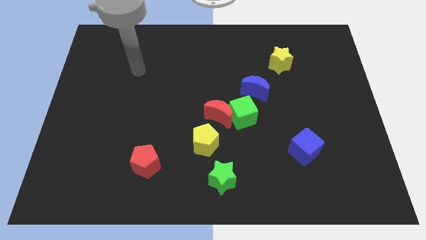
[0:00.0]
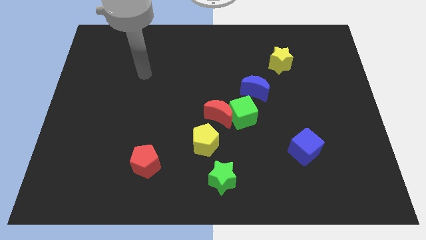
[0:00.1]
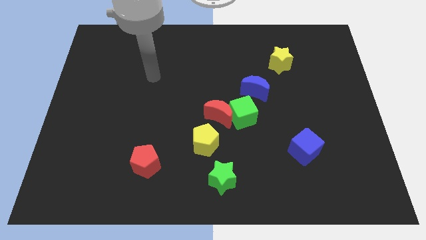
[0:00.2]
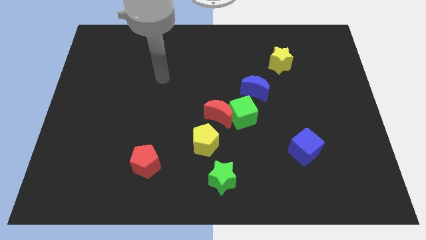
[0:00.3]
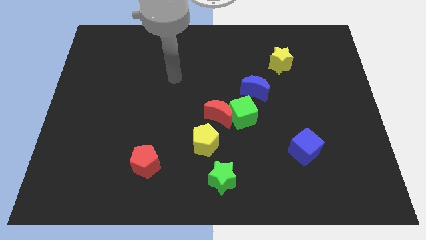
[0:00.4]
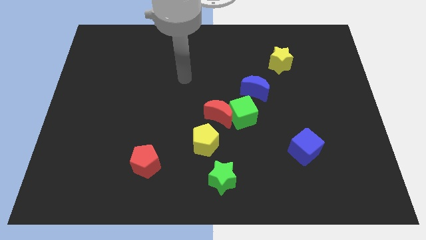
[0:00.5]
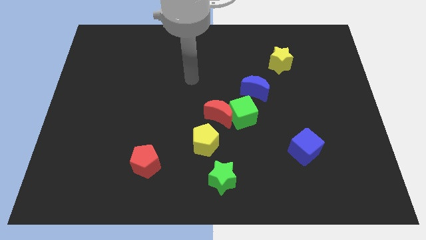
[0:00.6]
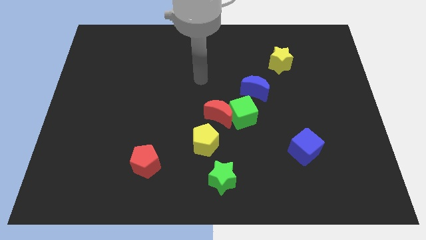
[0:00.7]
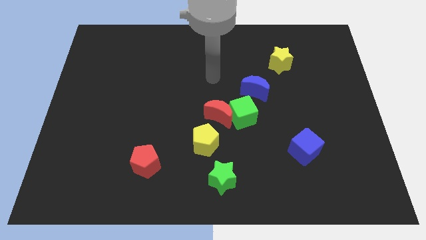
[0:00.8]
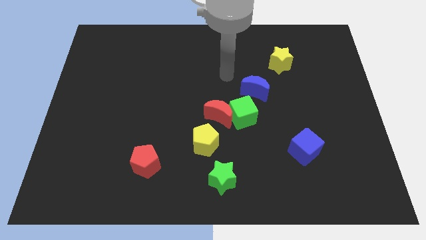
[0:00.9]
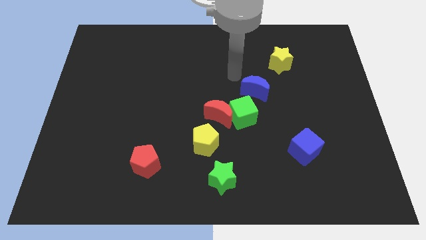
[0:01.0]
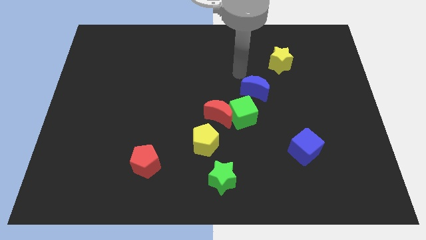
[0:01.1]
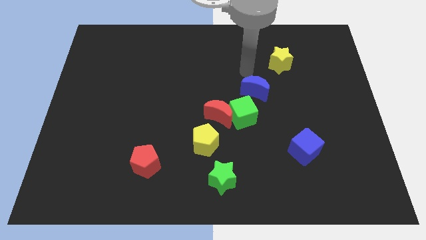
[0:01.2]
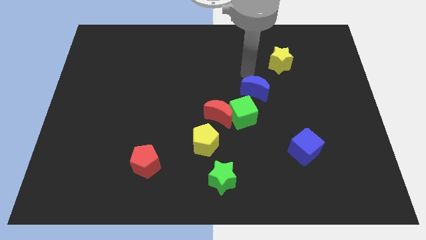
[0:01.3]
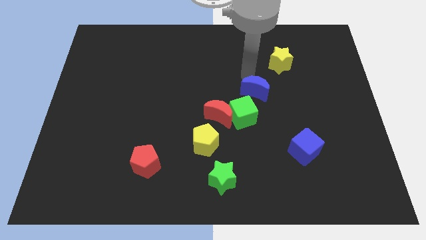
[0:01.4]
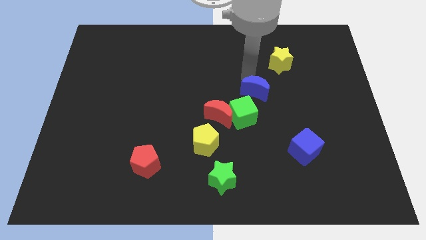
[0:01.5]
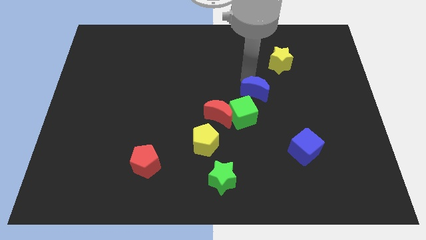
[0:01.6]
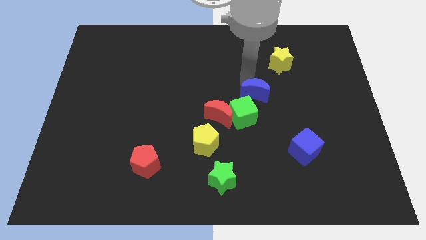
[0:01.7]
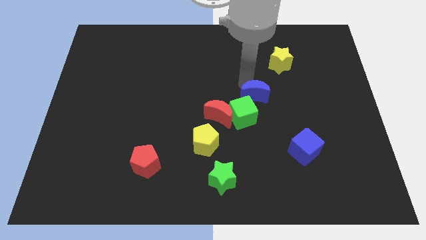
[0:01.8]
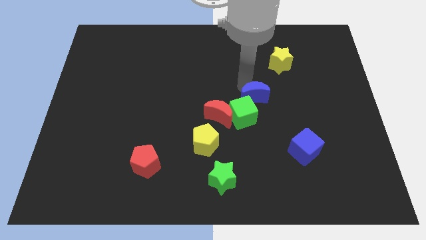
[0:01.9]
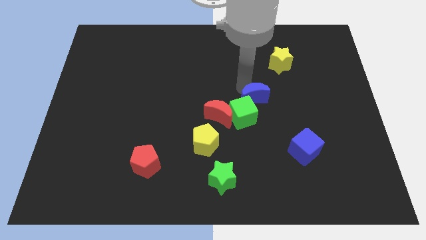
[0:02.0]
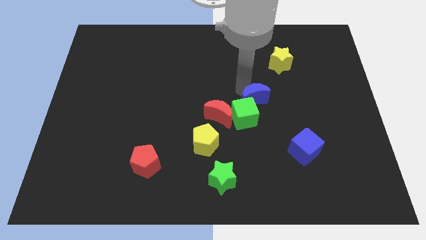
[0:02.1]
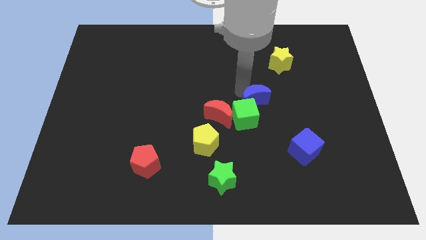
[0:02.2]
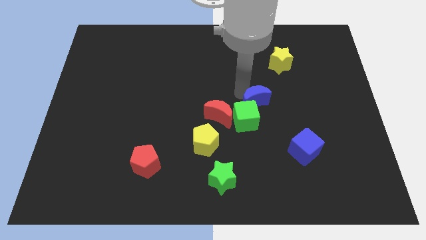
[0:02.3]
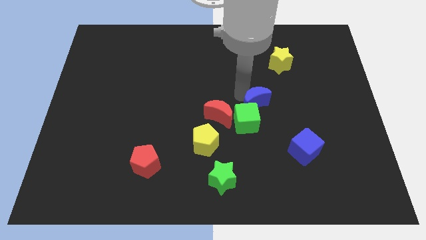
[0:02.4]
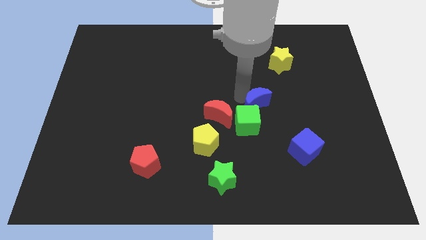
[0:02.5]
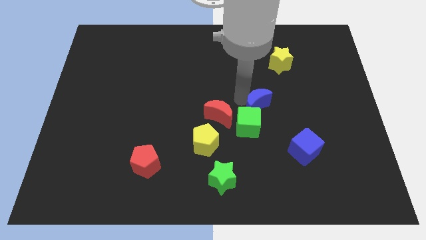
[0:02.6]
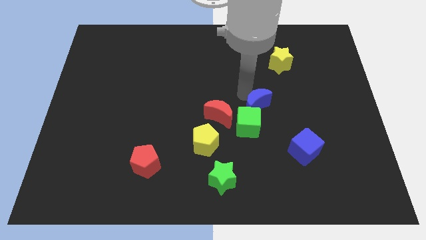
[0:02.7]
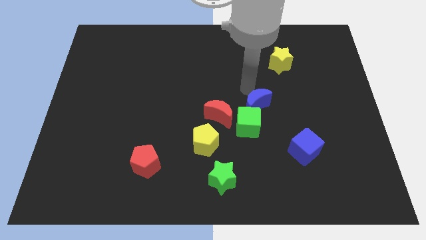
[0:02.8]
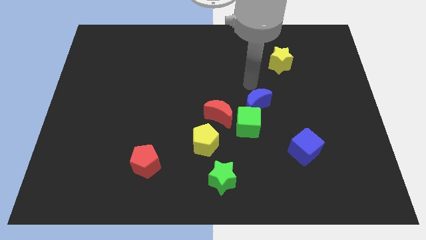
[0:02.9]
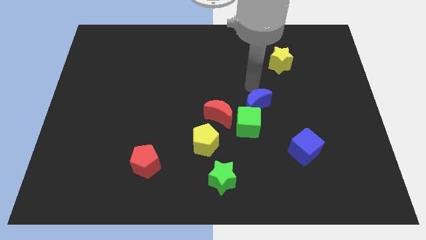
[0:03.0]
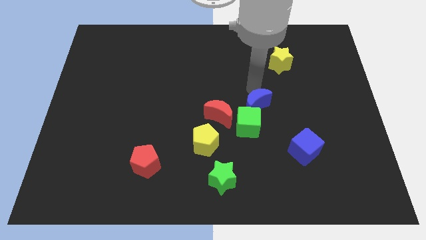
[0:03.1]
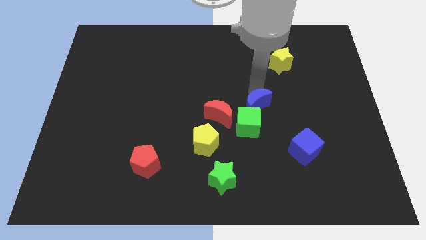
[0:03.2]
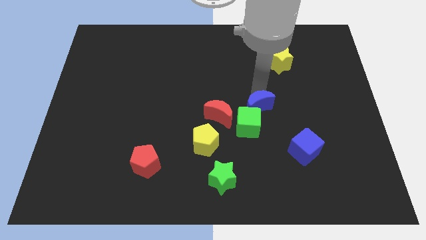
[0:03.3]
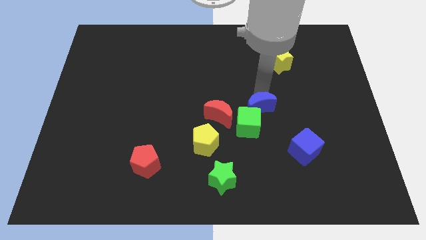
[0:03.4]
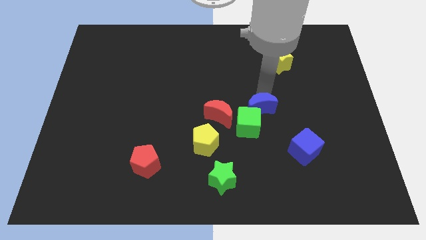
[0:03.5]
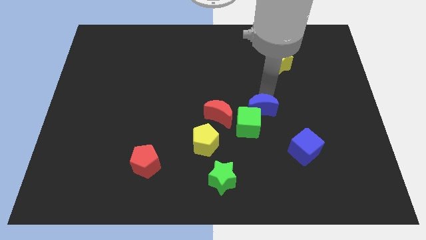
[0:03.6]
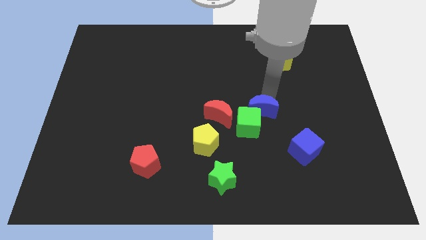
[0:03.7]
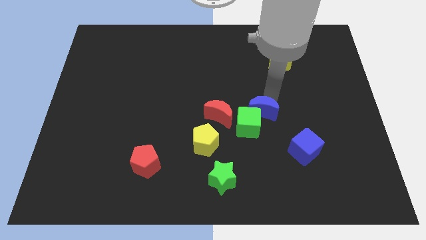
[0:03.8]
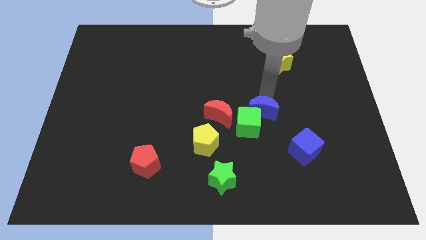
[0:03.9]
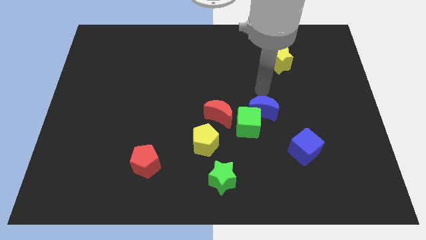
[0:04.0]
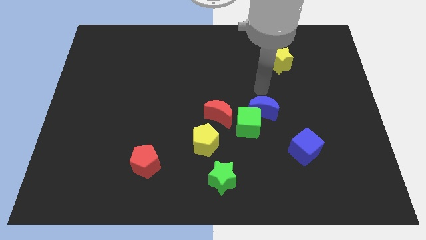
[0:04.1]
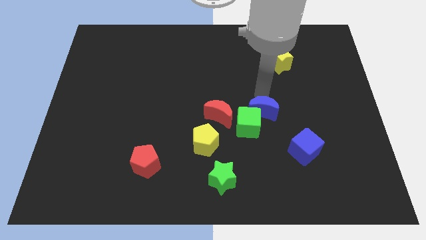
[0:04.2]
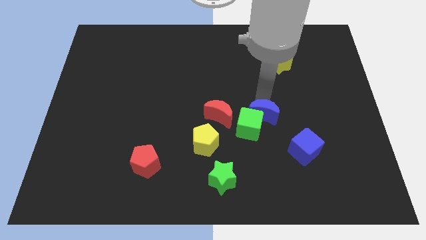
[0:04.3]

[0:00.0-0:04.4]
slightly push the blue moon down

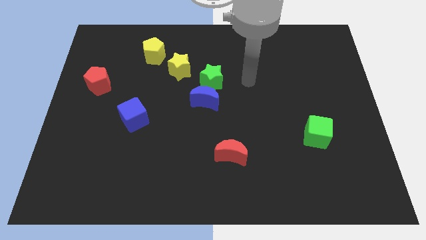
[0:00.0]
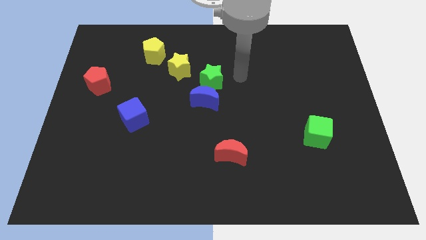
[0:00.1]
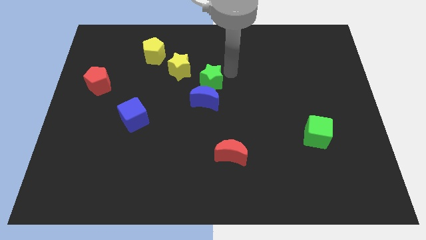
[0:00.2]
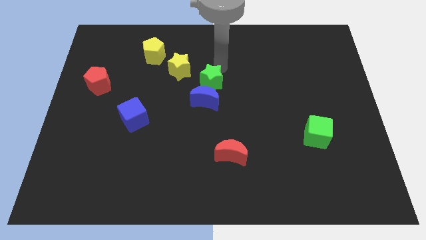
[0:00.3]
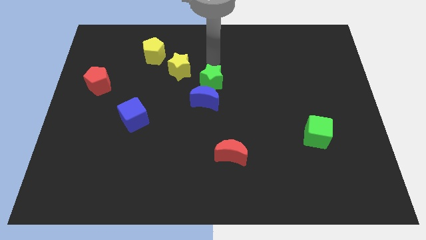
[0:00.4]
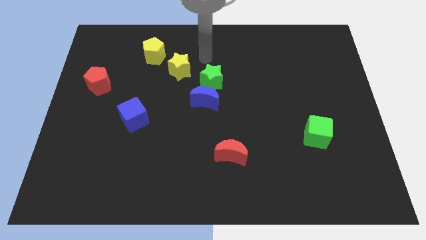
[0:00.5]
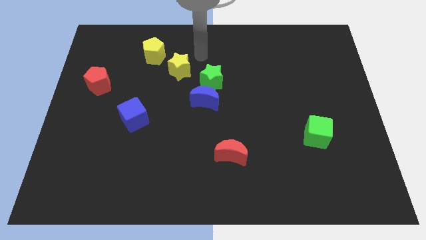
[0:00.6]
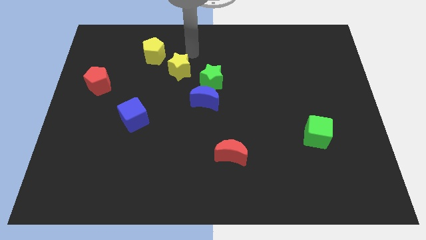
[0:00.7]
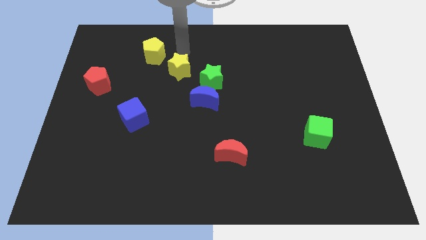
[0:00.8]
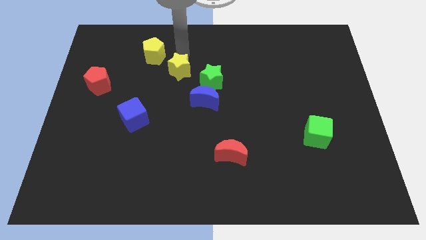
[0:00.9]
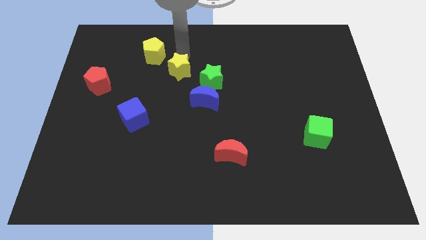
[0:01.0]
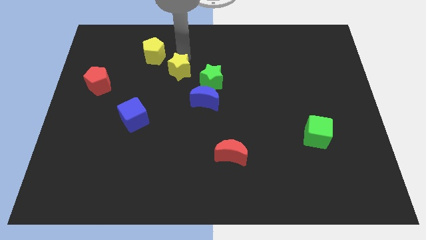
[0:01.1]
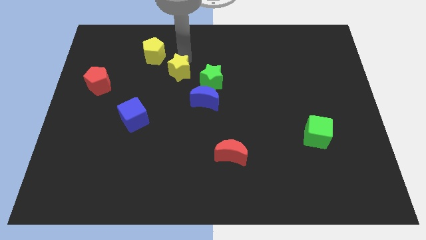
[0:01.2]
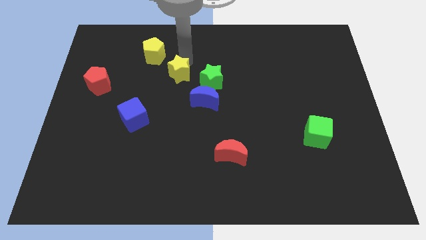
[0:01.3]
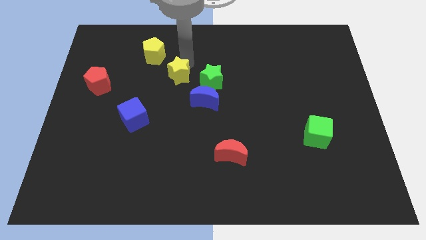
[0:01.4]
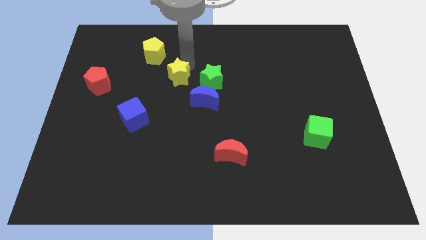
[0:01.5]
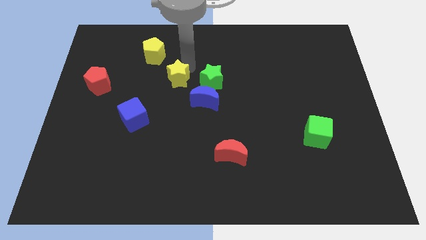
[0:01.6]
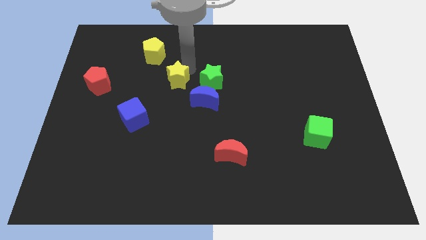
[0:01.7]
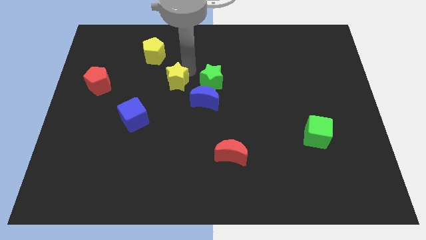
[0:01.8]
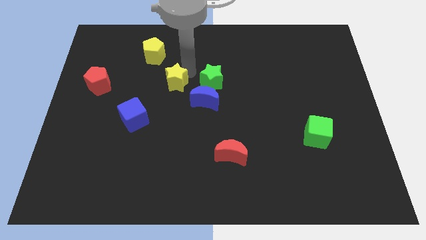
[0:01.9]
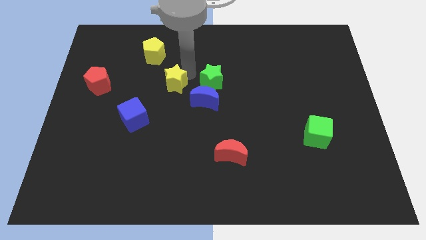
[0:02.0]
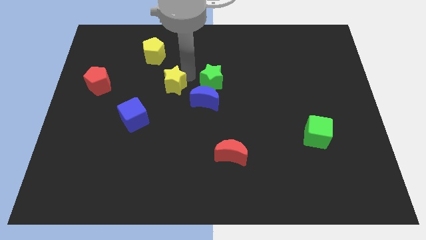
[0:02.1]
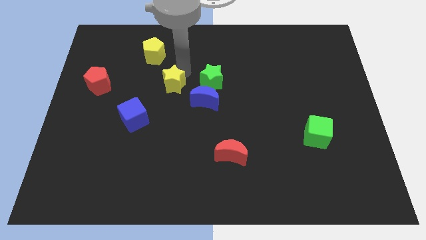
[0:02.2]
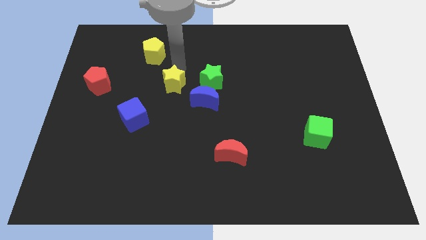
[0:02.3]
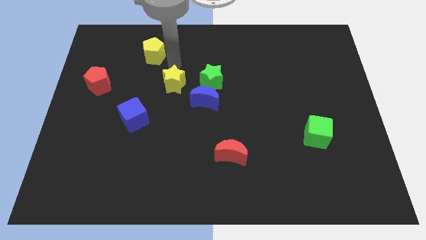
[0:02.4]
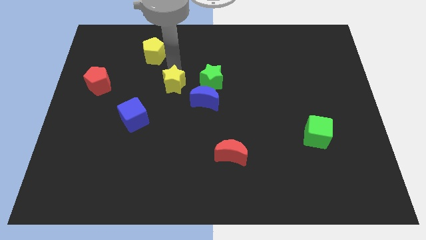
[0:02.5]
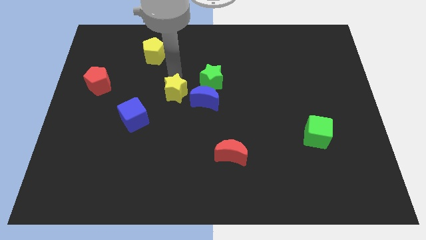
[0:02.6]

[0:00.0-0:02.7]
push the yellow star down slightly

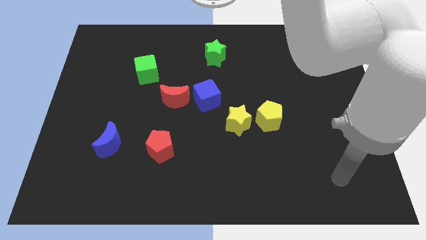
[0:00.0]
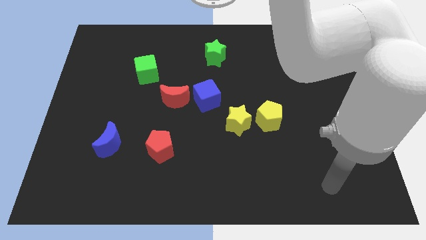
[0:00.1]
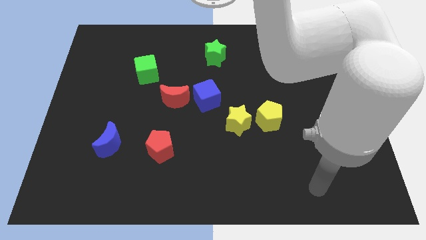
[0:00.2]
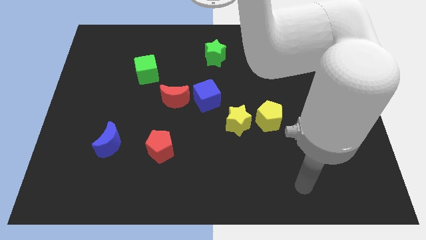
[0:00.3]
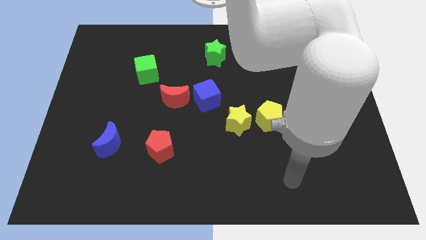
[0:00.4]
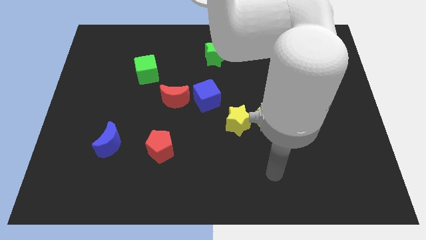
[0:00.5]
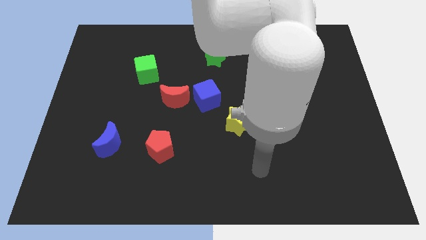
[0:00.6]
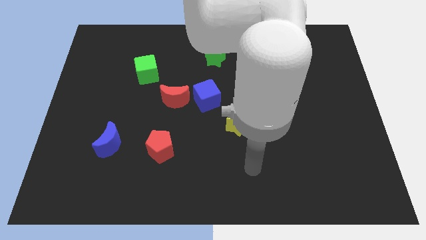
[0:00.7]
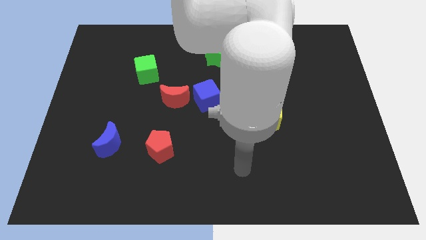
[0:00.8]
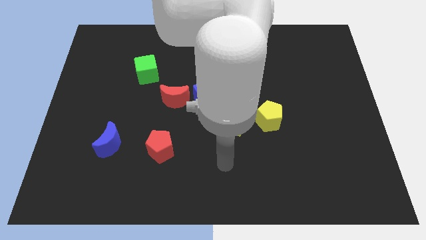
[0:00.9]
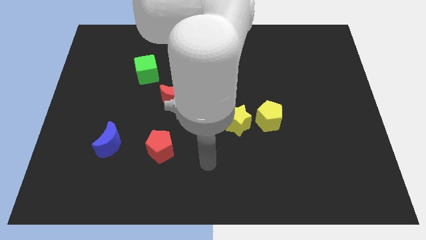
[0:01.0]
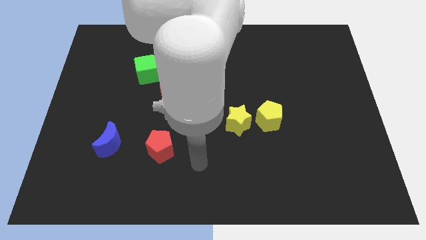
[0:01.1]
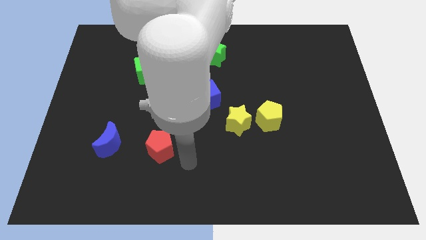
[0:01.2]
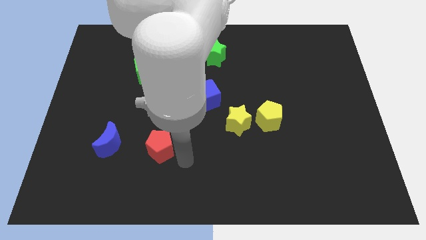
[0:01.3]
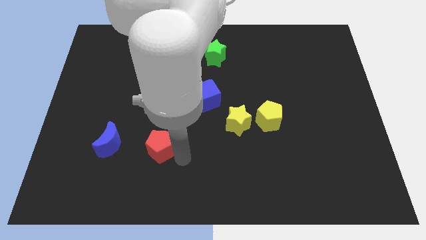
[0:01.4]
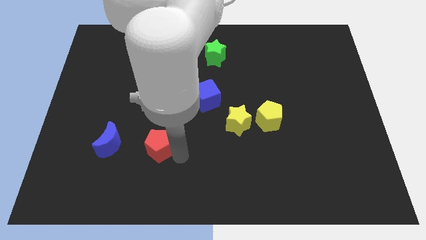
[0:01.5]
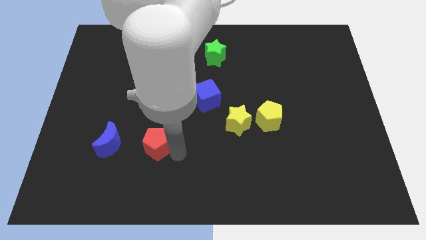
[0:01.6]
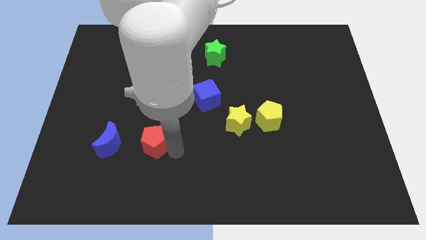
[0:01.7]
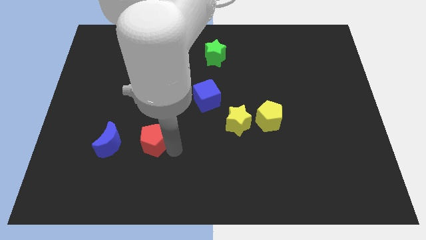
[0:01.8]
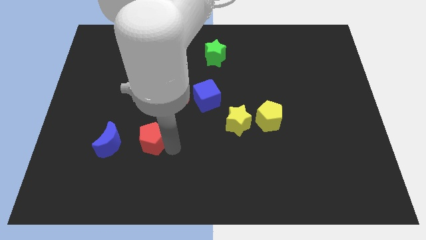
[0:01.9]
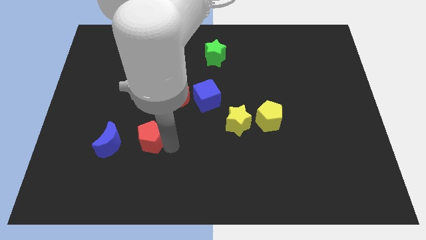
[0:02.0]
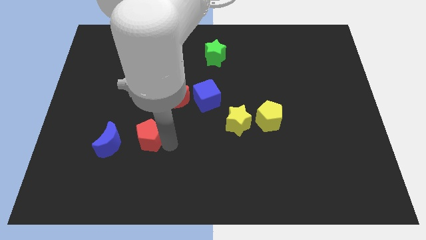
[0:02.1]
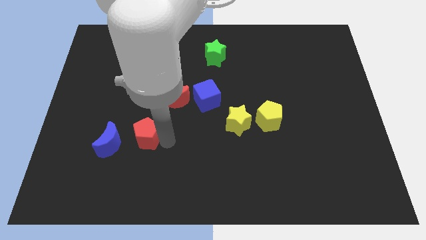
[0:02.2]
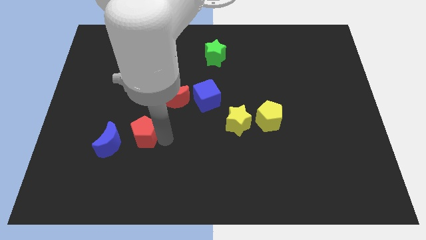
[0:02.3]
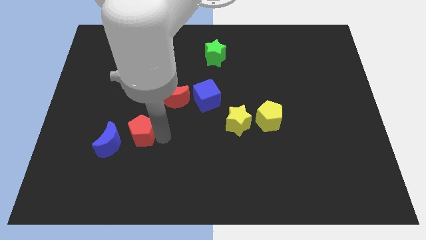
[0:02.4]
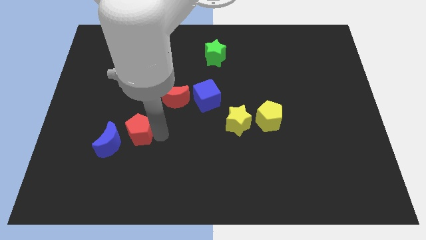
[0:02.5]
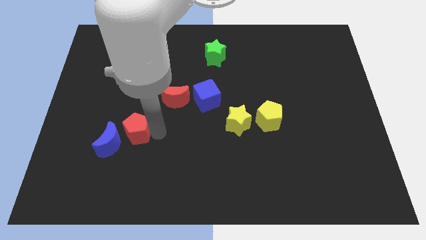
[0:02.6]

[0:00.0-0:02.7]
slide the red pentagon up and left diagonally slightly
